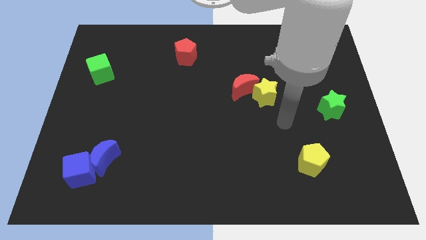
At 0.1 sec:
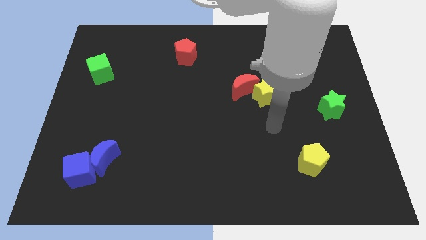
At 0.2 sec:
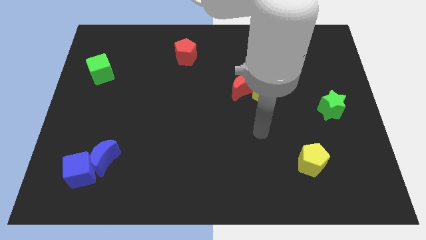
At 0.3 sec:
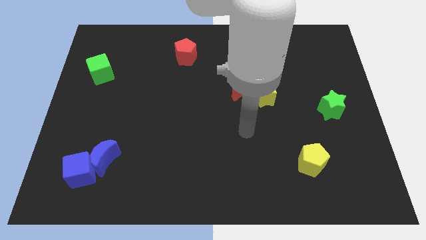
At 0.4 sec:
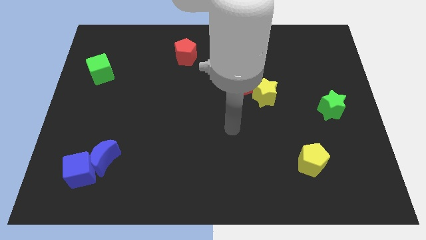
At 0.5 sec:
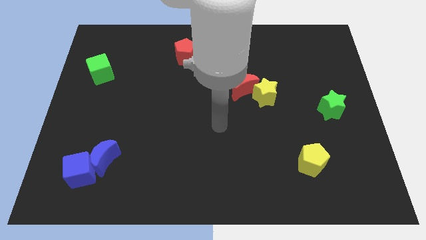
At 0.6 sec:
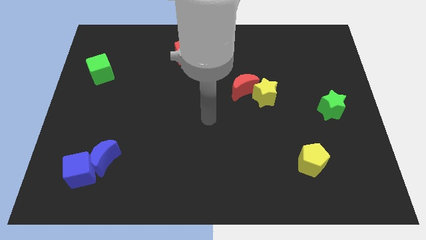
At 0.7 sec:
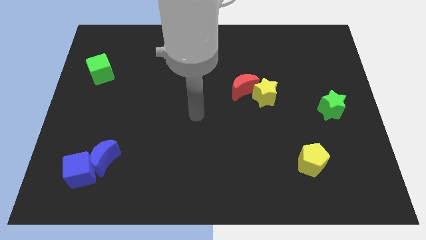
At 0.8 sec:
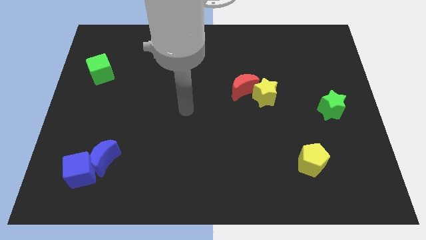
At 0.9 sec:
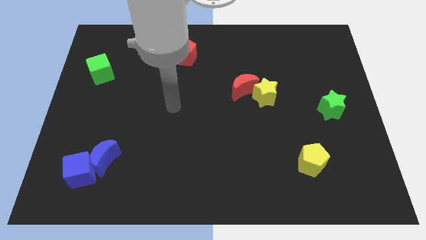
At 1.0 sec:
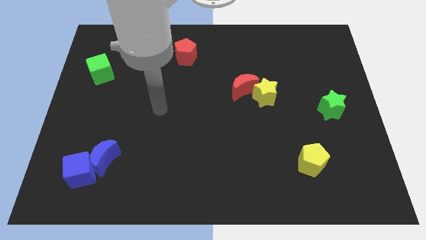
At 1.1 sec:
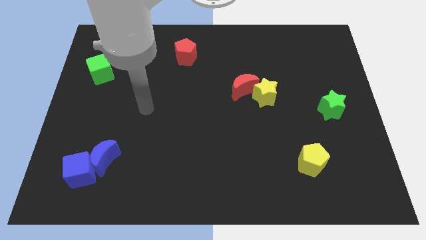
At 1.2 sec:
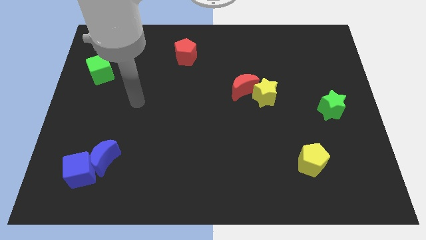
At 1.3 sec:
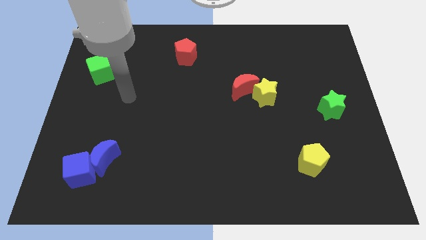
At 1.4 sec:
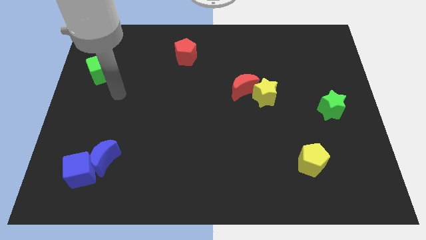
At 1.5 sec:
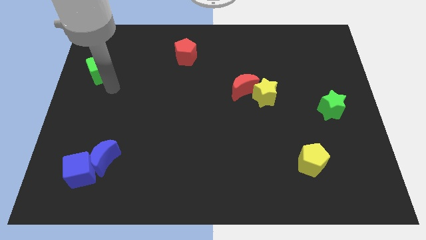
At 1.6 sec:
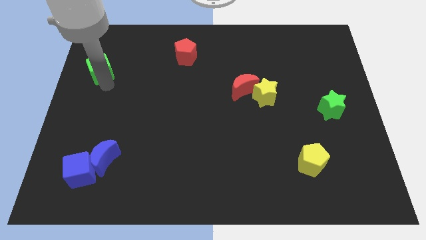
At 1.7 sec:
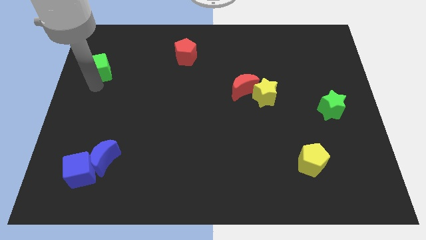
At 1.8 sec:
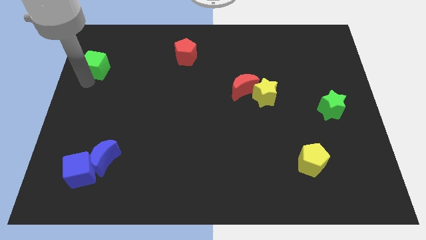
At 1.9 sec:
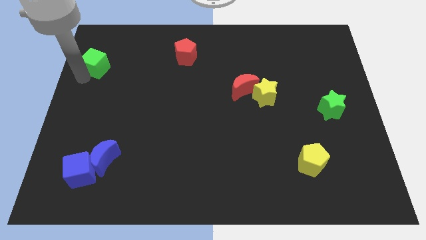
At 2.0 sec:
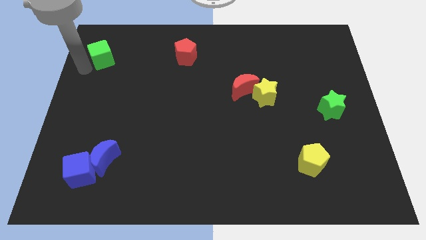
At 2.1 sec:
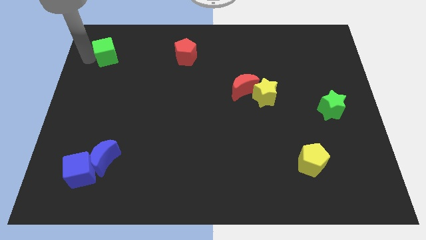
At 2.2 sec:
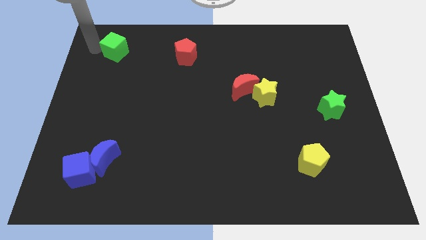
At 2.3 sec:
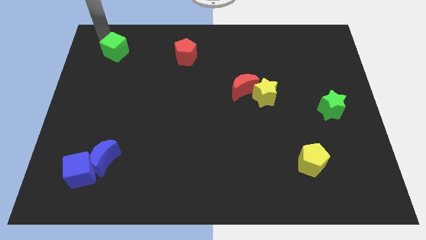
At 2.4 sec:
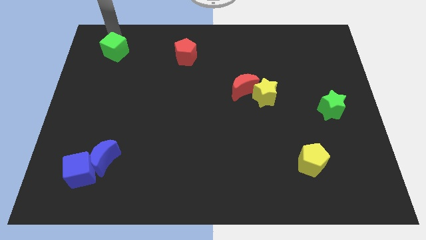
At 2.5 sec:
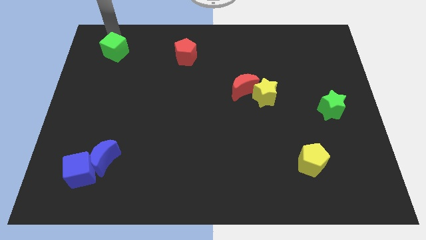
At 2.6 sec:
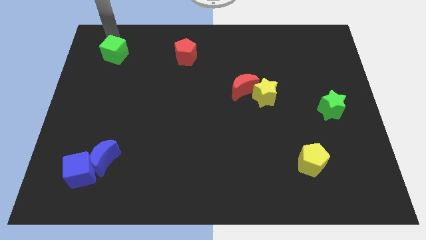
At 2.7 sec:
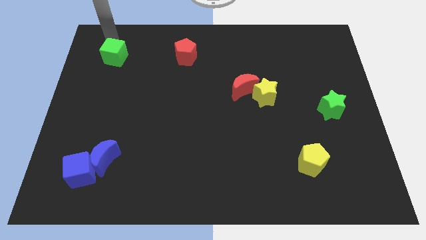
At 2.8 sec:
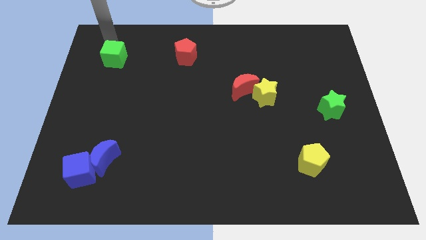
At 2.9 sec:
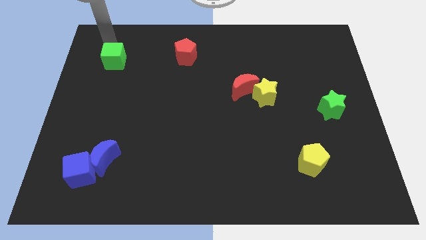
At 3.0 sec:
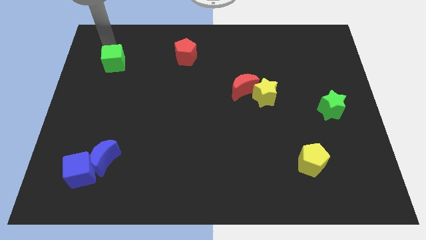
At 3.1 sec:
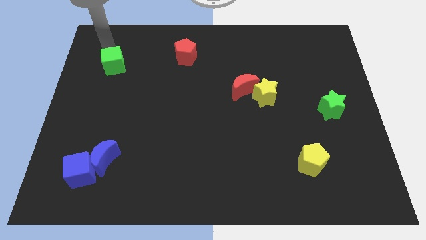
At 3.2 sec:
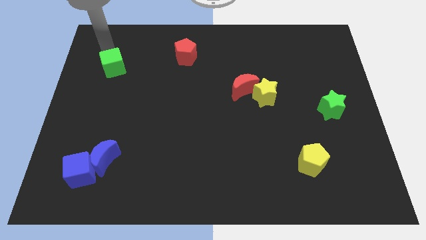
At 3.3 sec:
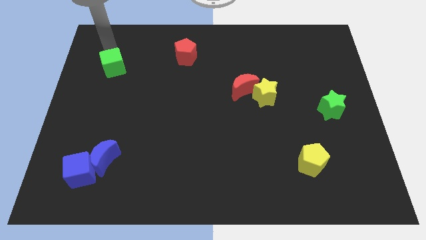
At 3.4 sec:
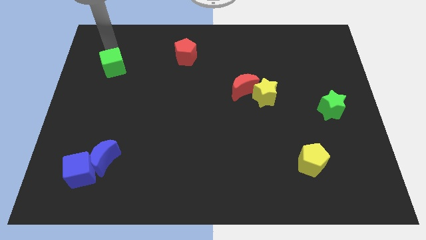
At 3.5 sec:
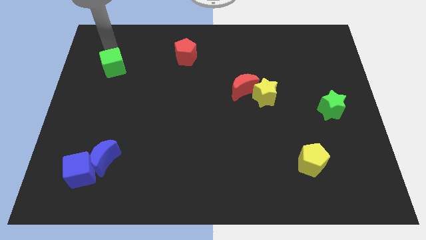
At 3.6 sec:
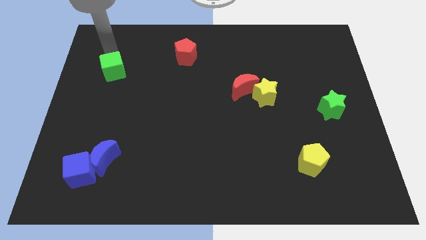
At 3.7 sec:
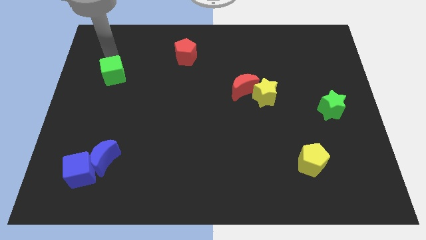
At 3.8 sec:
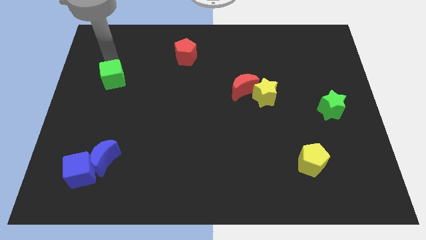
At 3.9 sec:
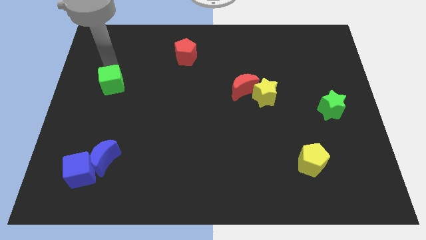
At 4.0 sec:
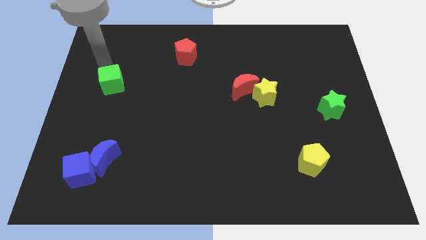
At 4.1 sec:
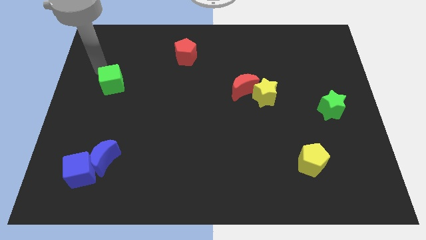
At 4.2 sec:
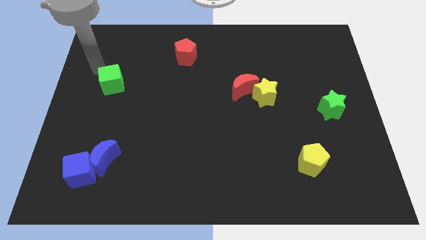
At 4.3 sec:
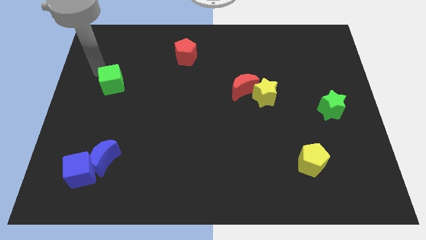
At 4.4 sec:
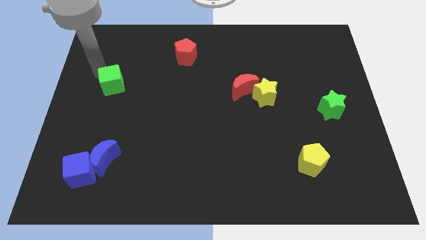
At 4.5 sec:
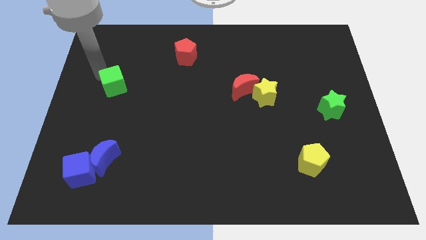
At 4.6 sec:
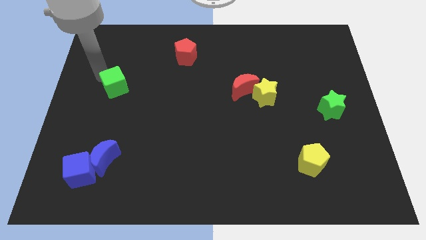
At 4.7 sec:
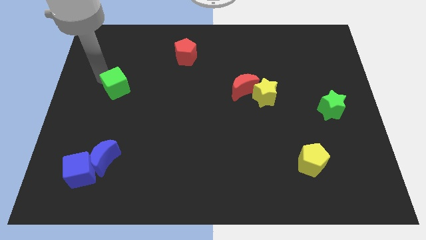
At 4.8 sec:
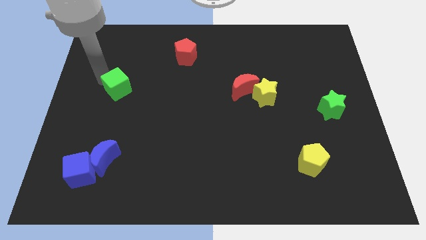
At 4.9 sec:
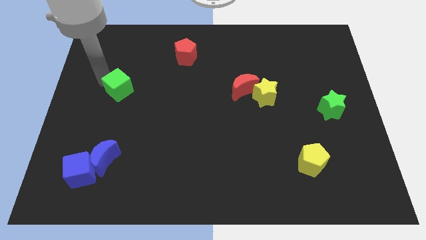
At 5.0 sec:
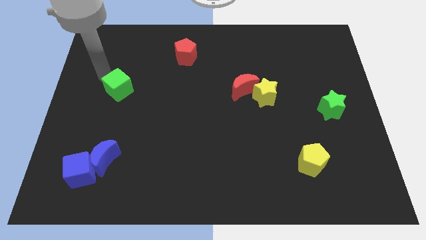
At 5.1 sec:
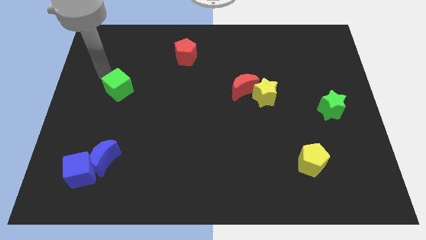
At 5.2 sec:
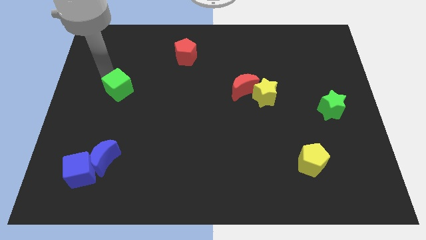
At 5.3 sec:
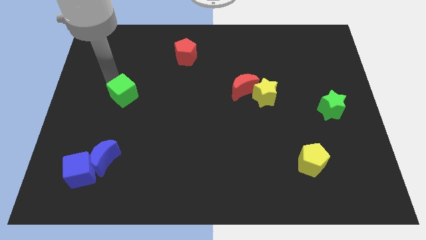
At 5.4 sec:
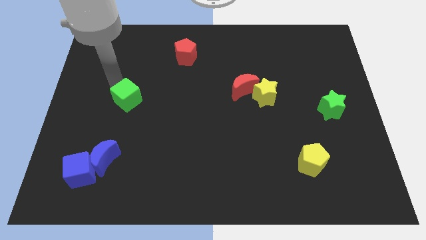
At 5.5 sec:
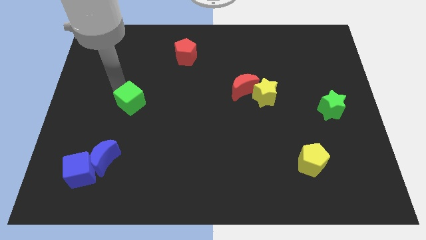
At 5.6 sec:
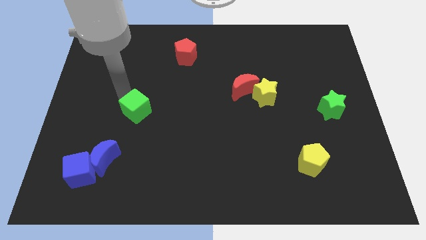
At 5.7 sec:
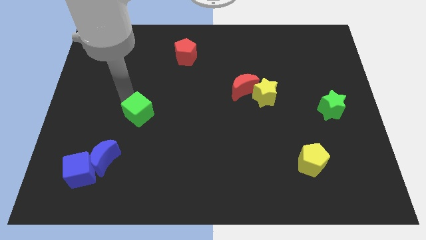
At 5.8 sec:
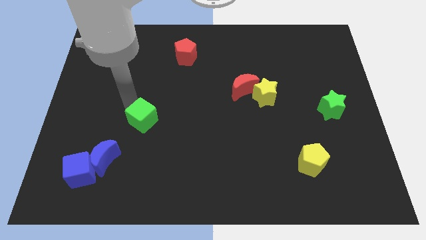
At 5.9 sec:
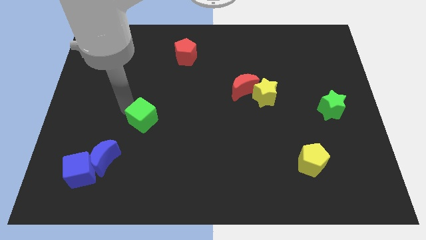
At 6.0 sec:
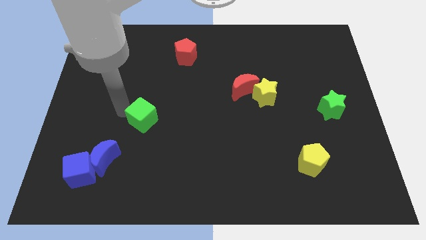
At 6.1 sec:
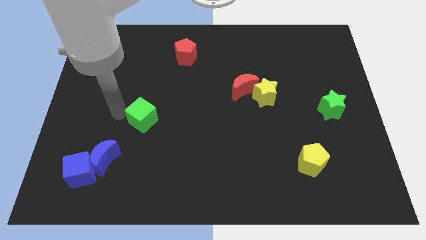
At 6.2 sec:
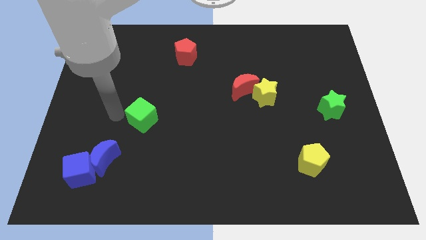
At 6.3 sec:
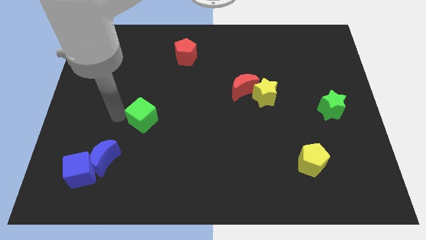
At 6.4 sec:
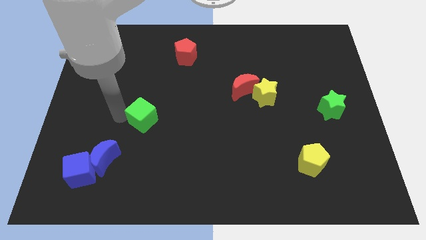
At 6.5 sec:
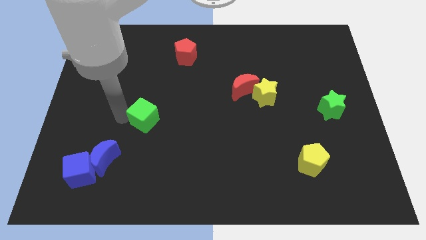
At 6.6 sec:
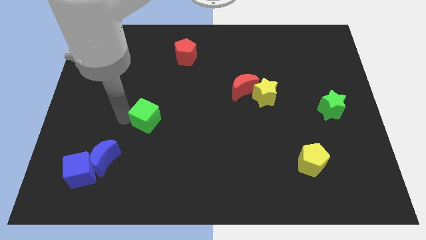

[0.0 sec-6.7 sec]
push the green cube diagonally down and to the right

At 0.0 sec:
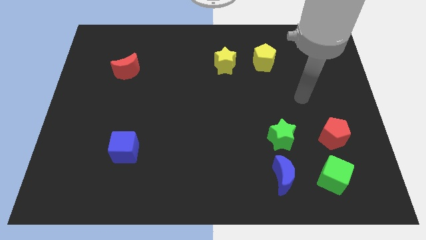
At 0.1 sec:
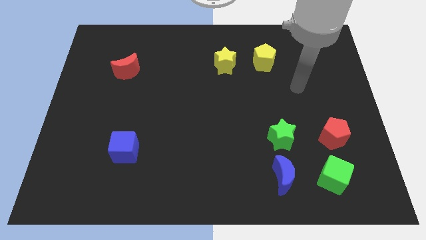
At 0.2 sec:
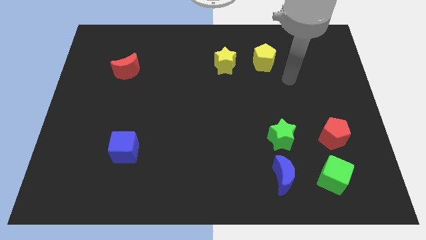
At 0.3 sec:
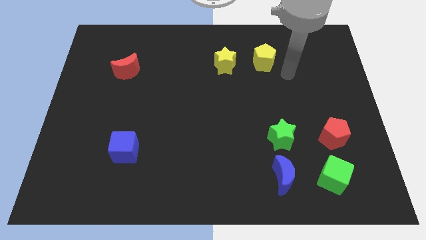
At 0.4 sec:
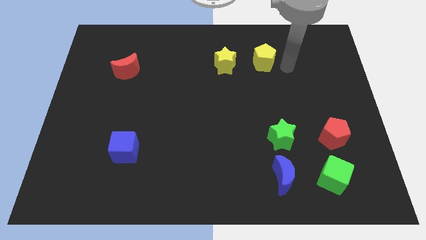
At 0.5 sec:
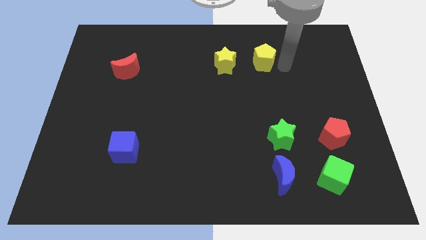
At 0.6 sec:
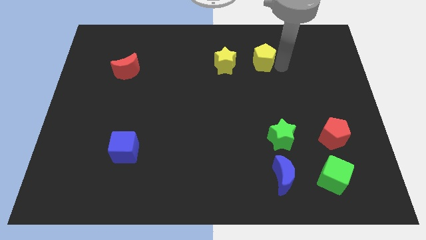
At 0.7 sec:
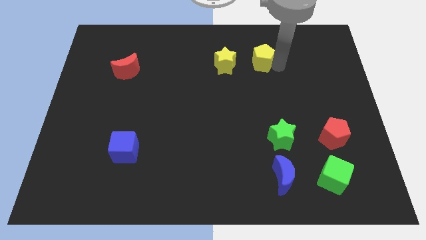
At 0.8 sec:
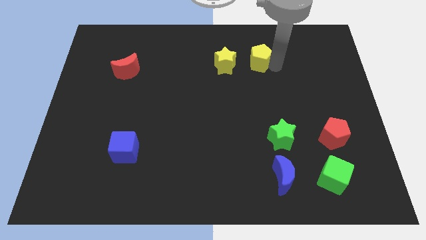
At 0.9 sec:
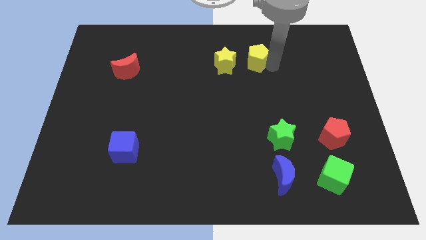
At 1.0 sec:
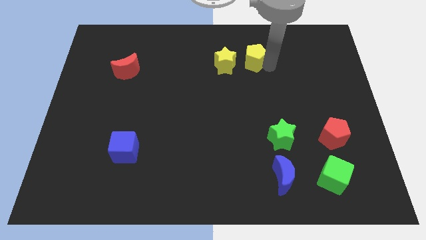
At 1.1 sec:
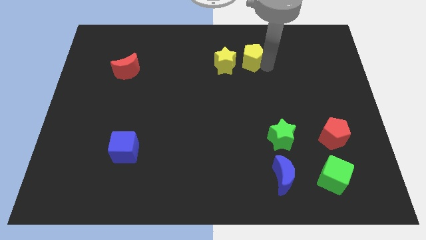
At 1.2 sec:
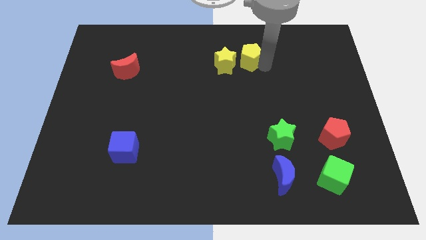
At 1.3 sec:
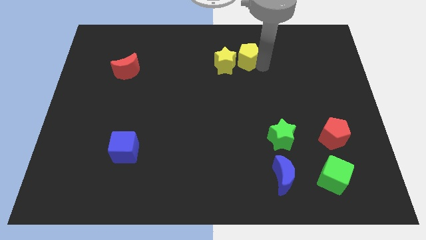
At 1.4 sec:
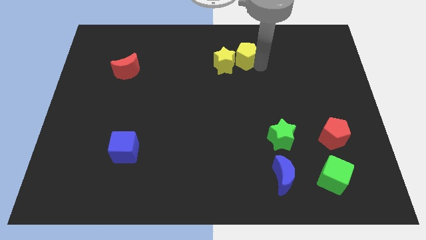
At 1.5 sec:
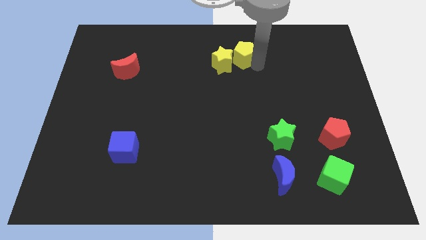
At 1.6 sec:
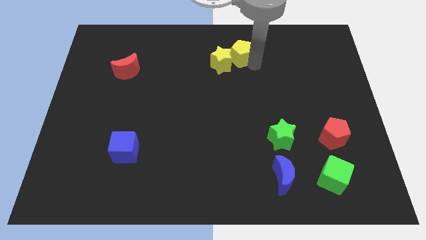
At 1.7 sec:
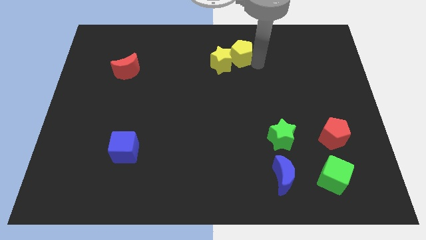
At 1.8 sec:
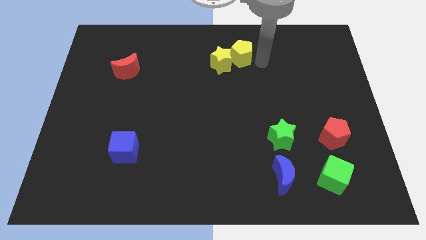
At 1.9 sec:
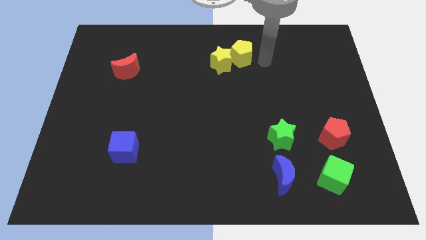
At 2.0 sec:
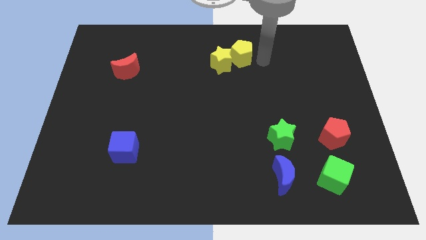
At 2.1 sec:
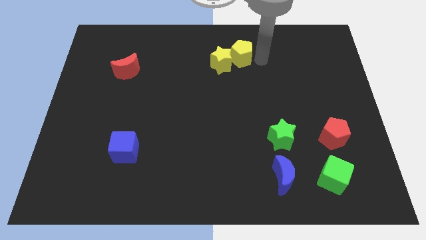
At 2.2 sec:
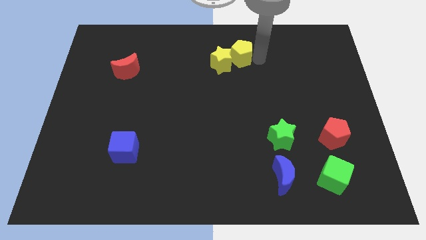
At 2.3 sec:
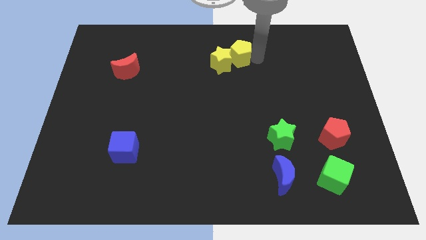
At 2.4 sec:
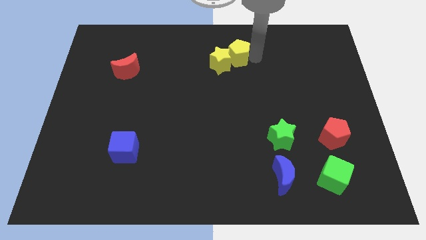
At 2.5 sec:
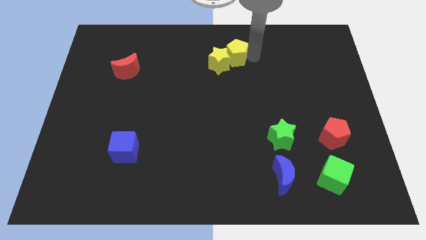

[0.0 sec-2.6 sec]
slightly push the yellow pentagon left
